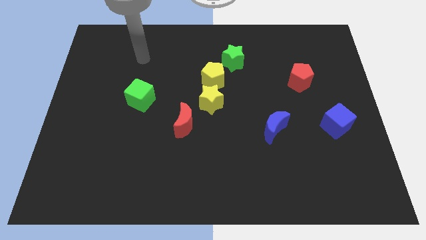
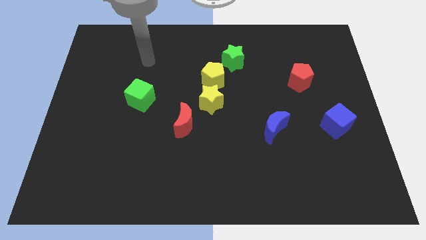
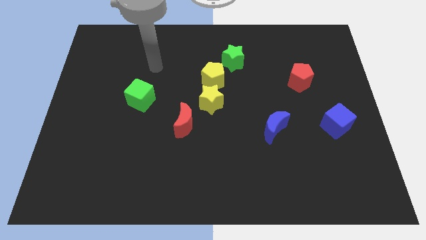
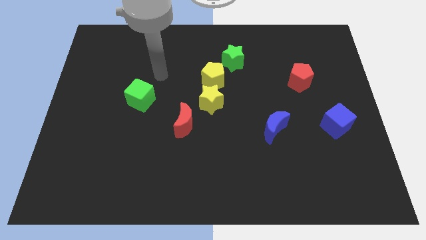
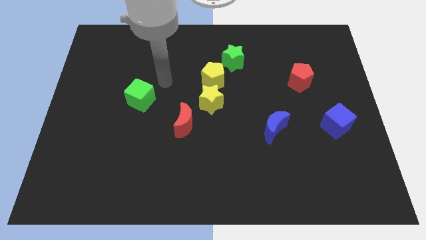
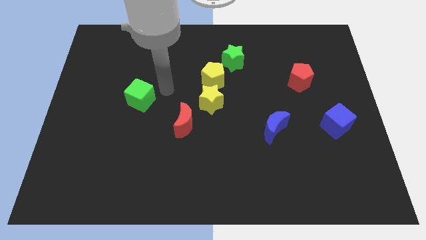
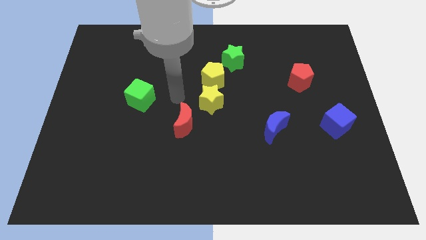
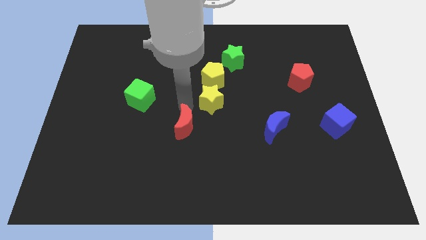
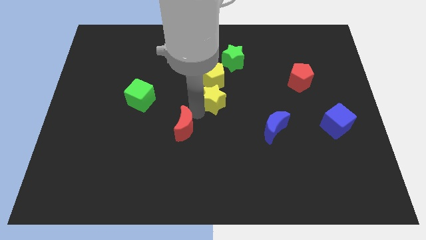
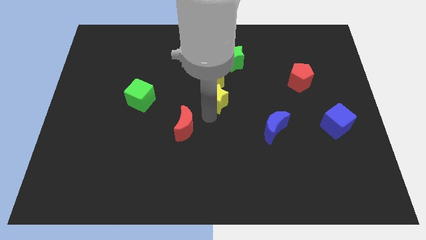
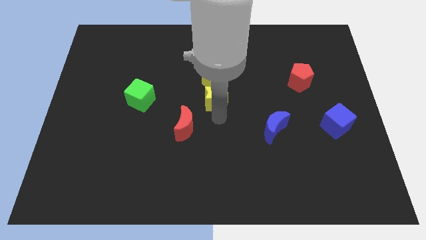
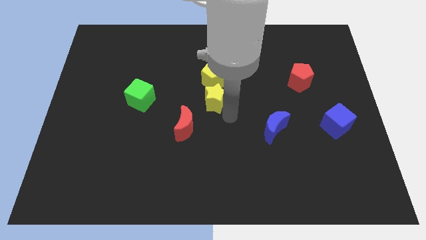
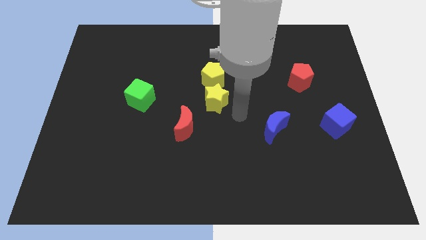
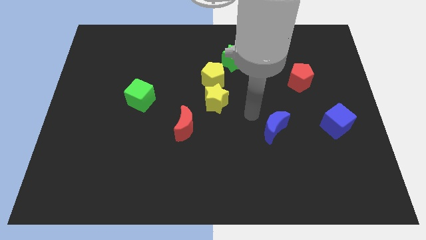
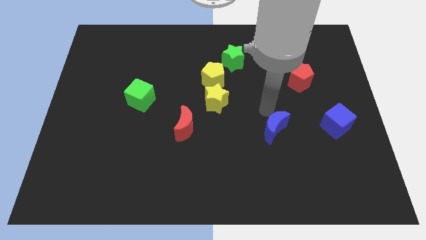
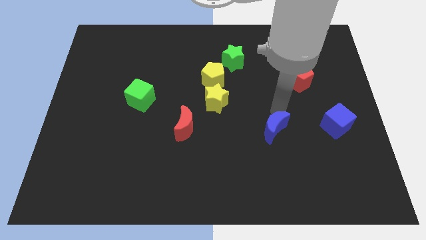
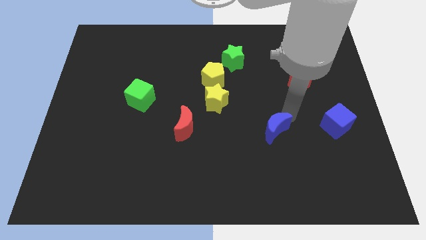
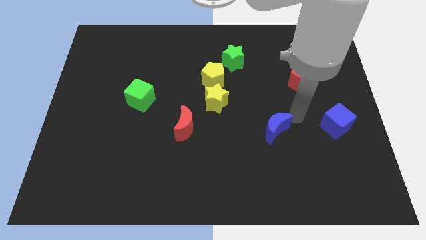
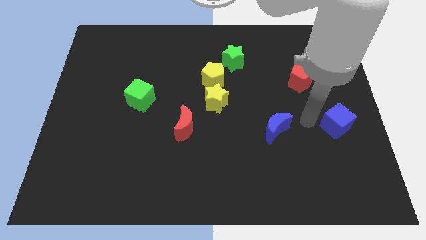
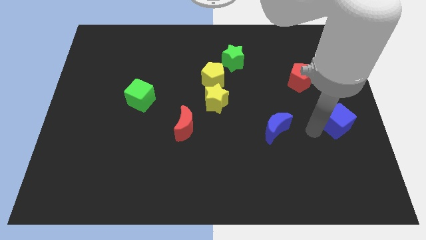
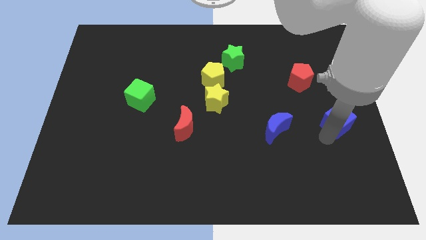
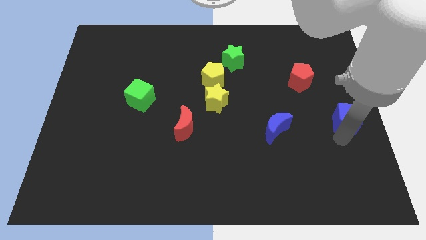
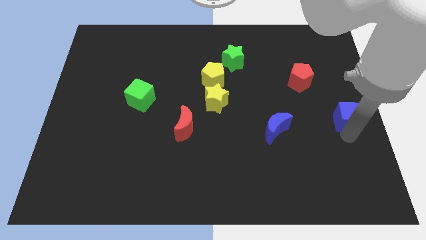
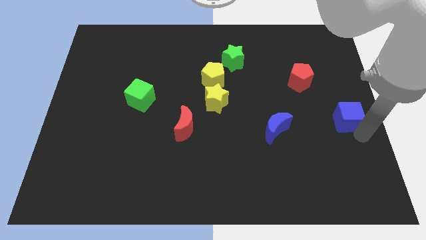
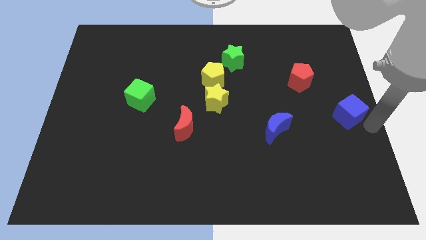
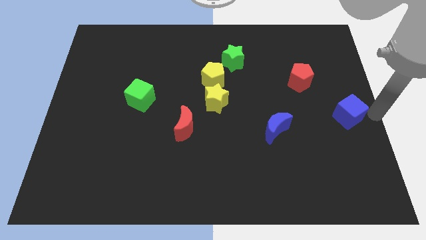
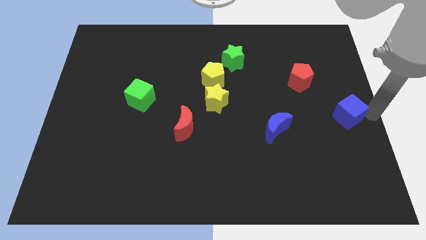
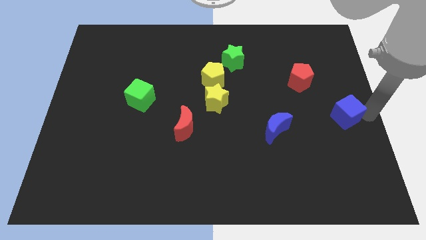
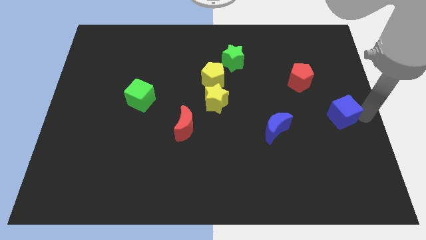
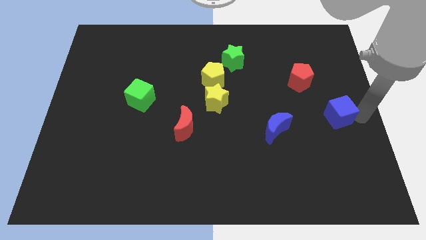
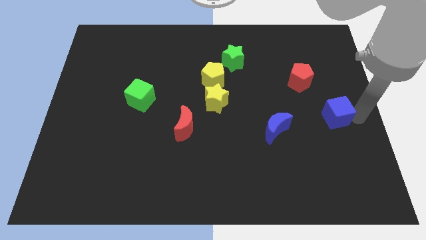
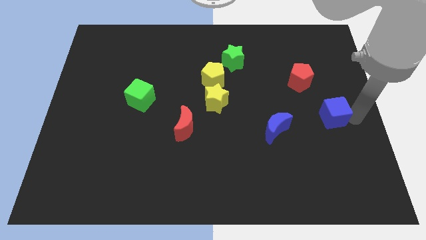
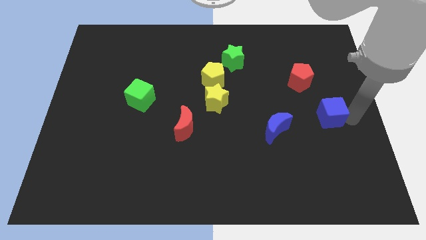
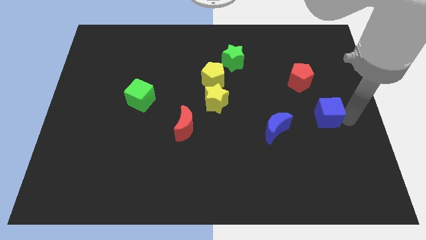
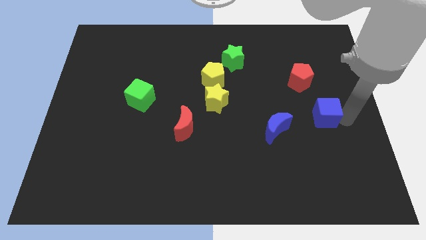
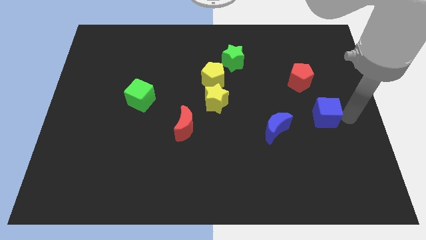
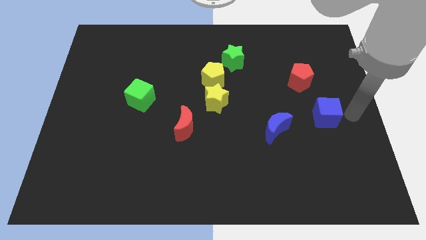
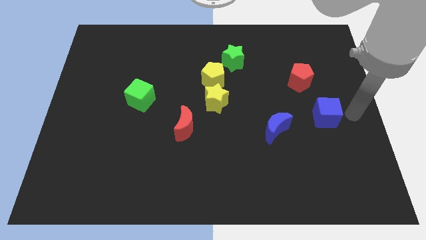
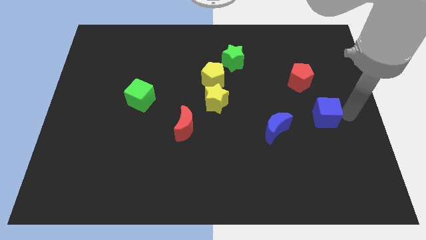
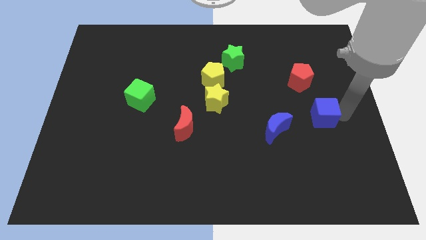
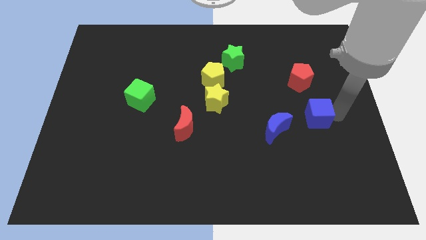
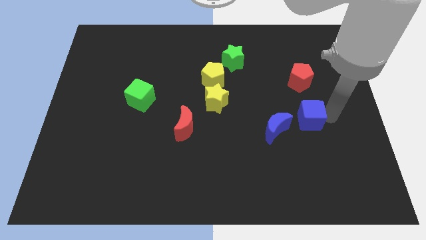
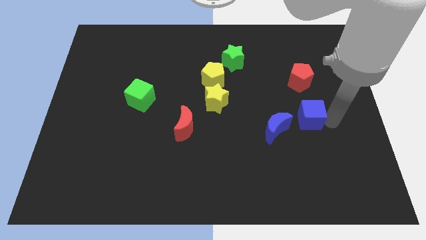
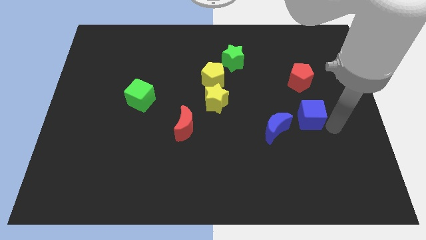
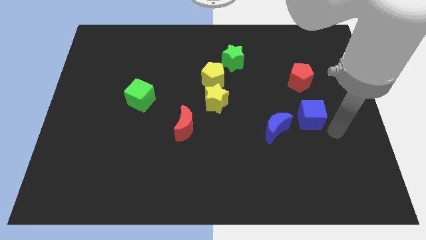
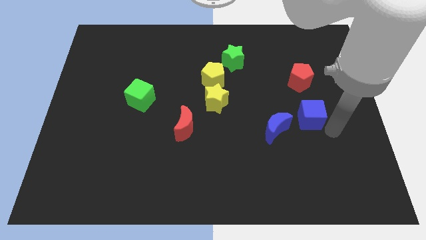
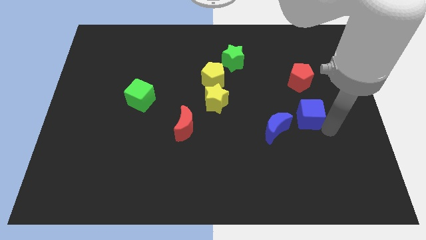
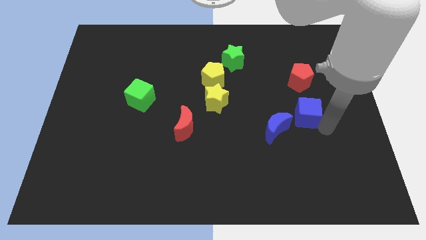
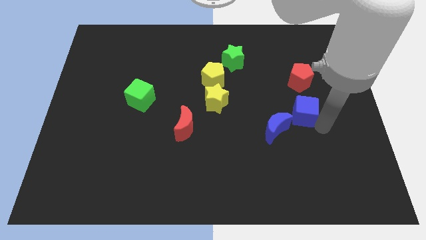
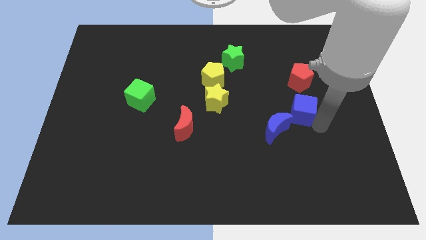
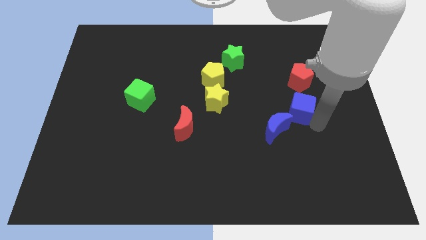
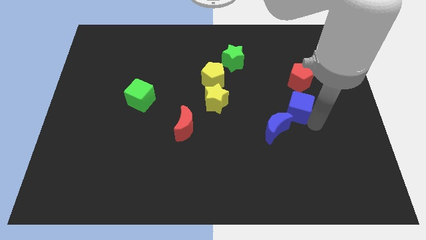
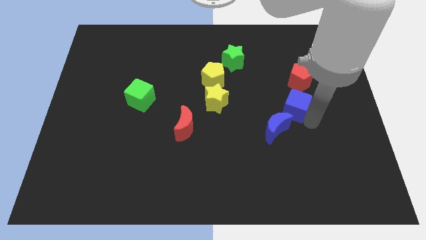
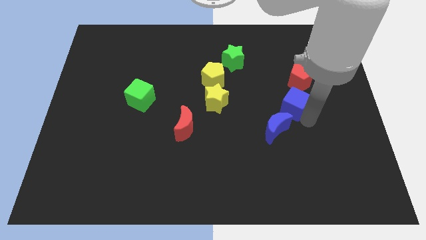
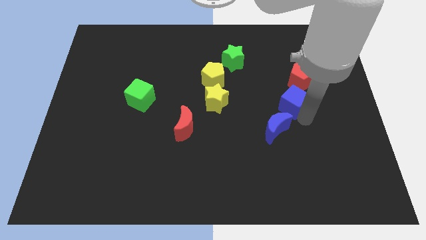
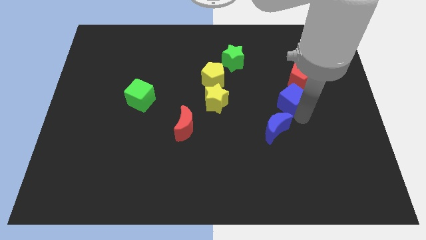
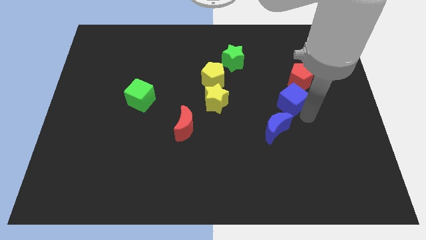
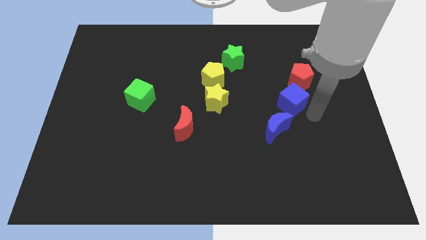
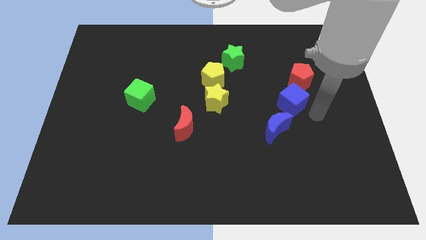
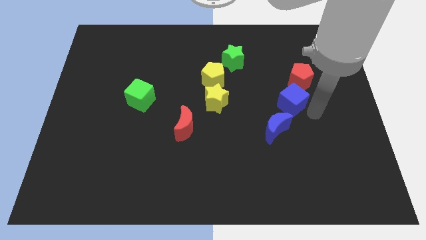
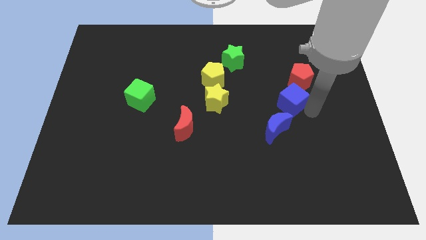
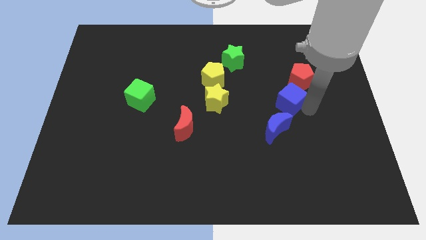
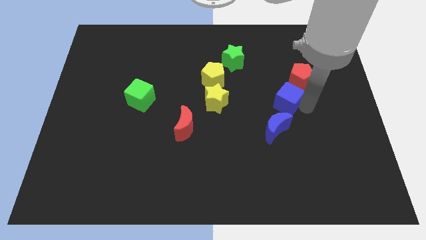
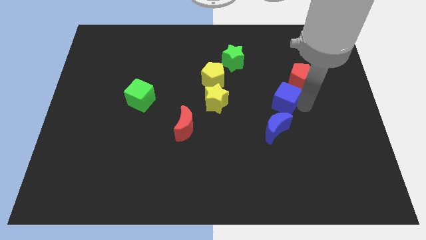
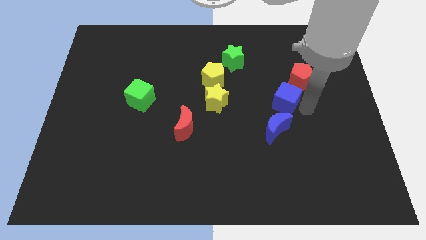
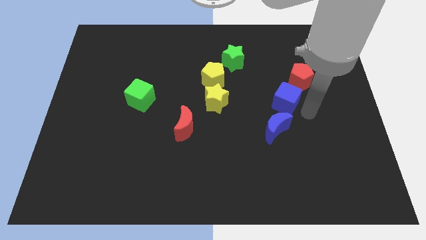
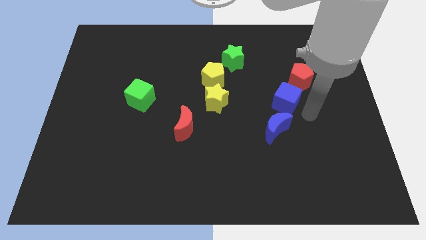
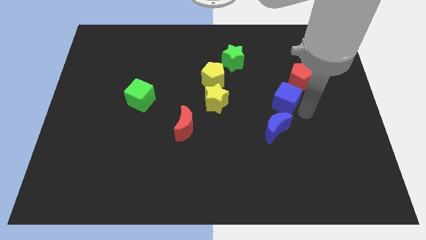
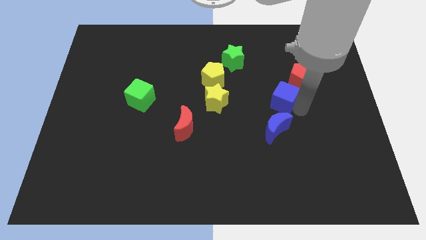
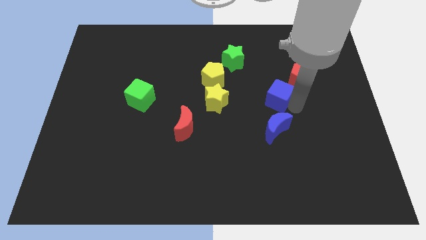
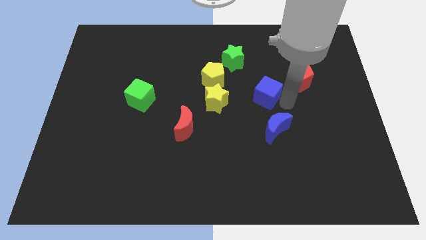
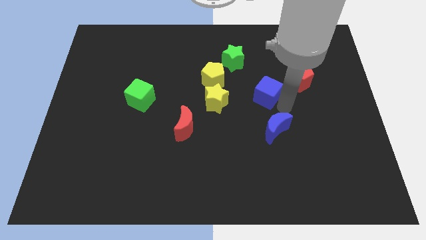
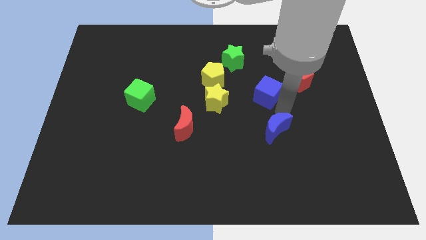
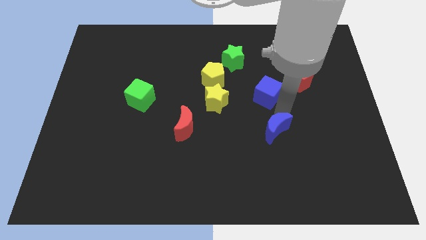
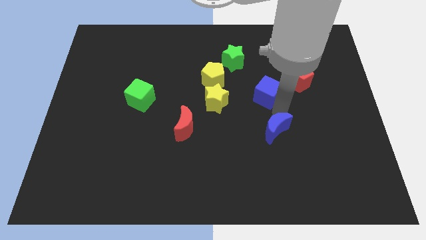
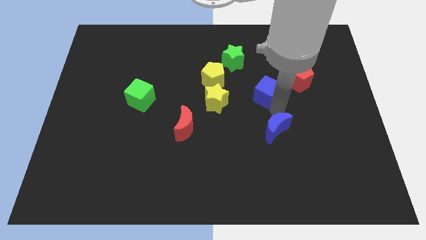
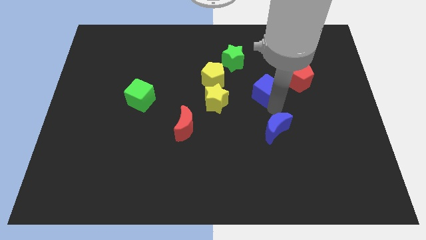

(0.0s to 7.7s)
push the blue cube just right of the yellow pentagon
